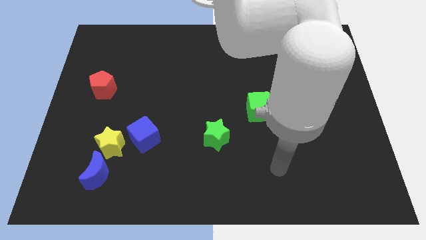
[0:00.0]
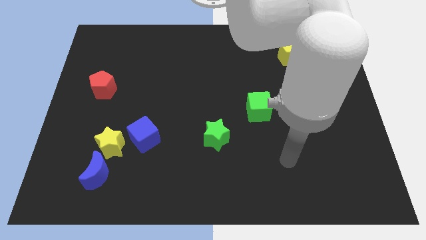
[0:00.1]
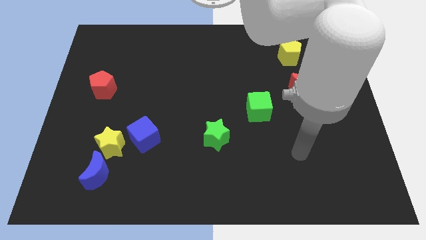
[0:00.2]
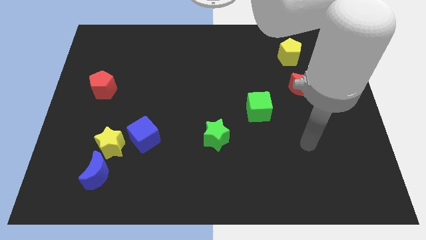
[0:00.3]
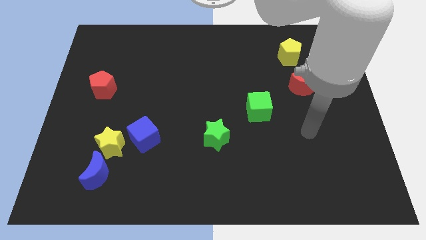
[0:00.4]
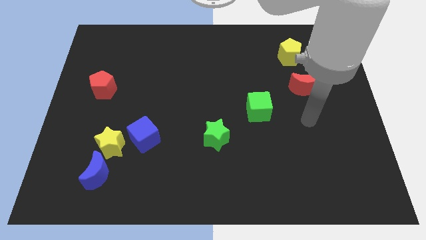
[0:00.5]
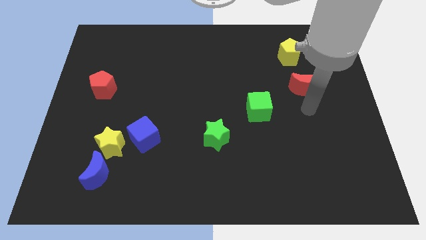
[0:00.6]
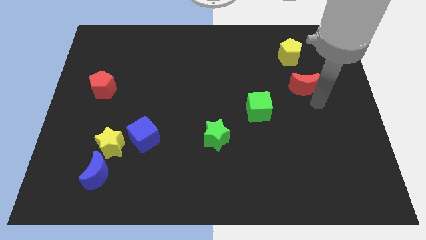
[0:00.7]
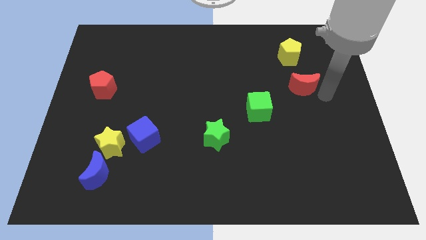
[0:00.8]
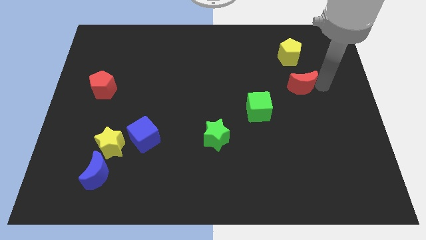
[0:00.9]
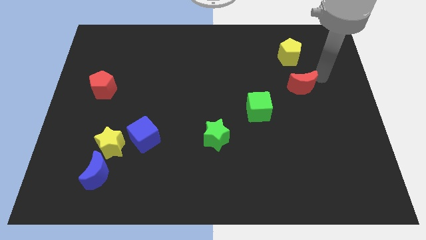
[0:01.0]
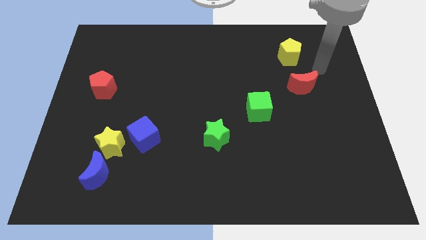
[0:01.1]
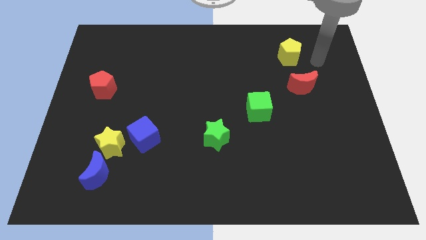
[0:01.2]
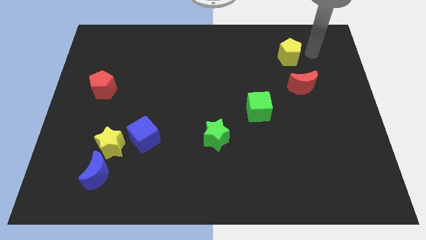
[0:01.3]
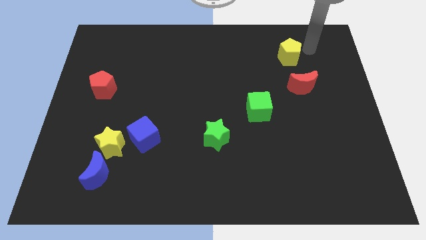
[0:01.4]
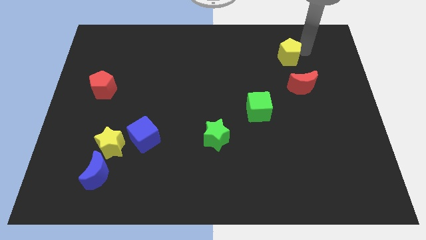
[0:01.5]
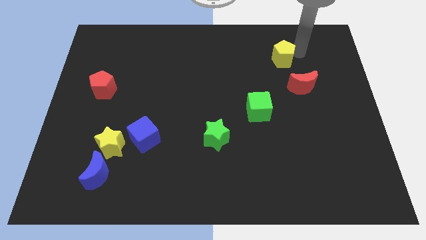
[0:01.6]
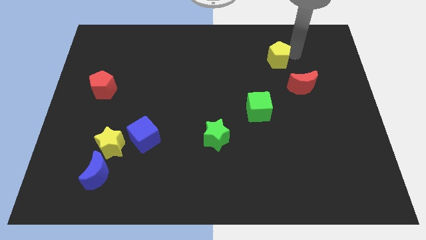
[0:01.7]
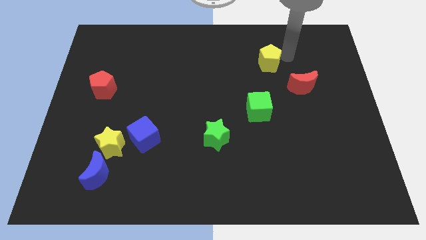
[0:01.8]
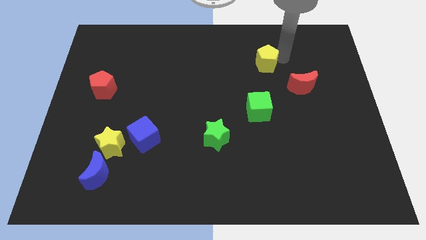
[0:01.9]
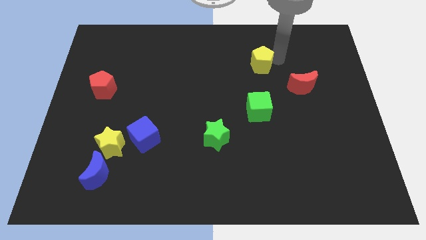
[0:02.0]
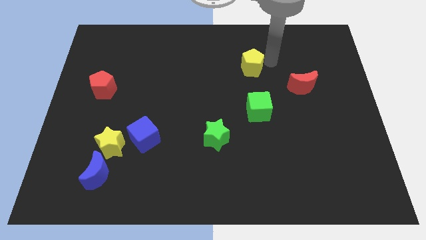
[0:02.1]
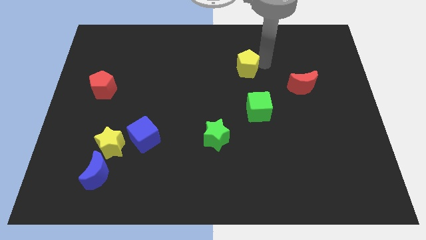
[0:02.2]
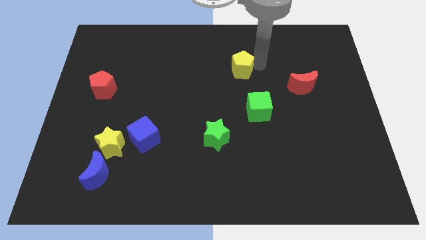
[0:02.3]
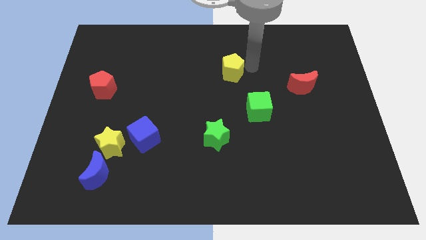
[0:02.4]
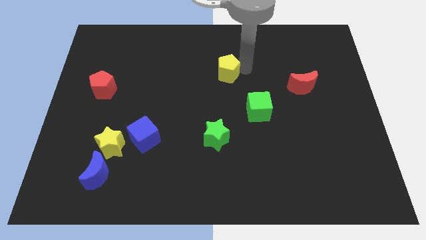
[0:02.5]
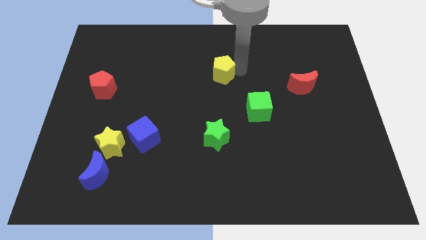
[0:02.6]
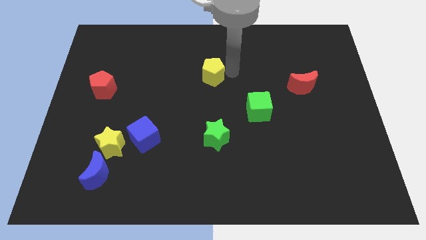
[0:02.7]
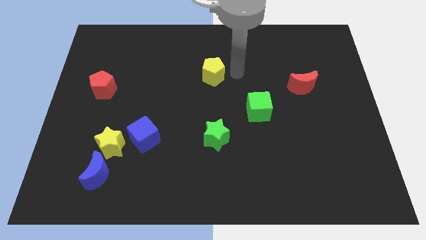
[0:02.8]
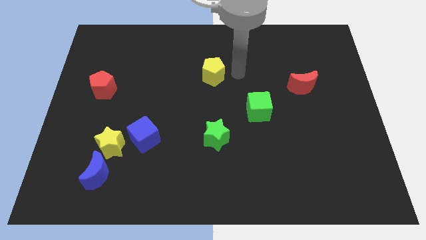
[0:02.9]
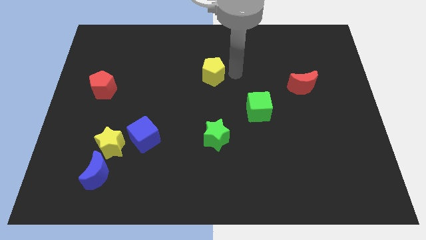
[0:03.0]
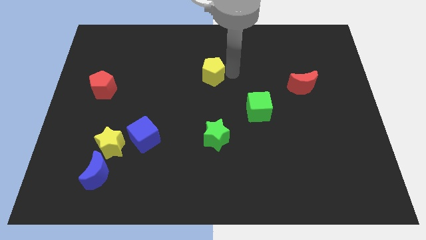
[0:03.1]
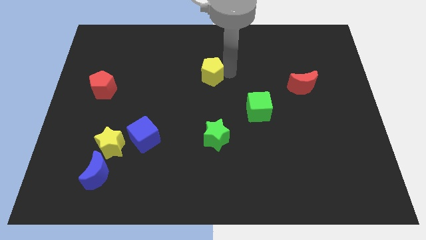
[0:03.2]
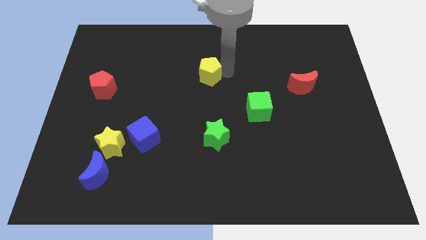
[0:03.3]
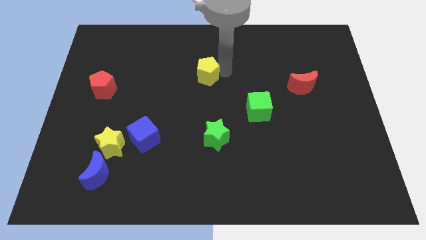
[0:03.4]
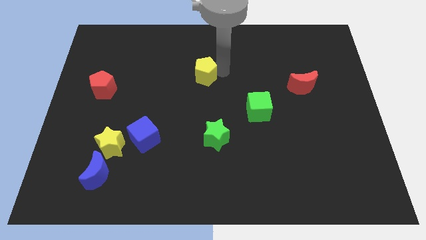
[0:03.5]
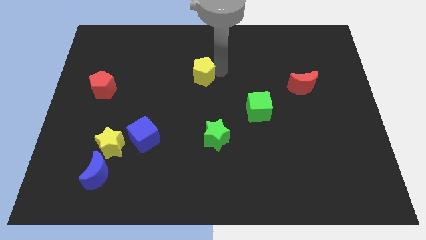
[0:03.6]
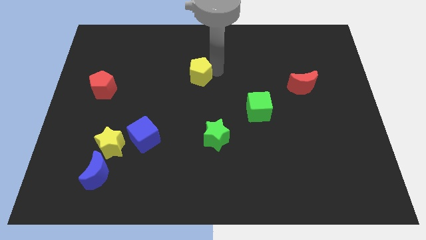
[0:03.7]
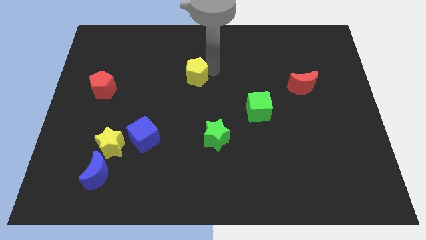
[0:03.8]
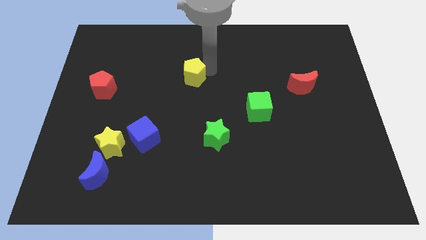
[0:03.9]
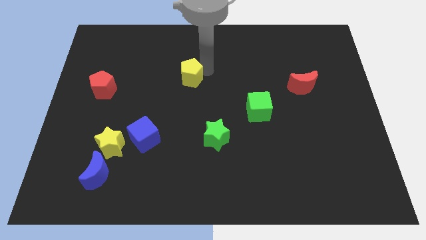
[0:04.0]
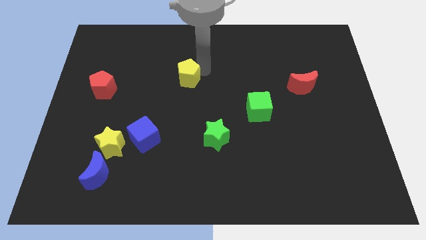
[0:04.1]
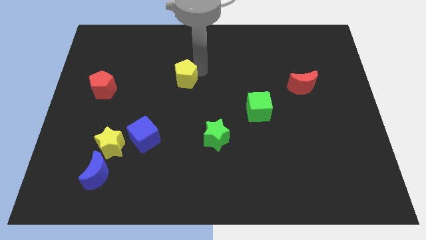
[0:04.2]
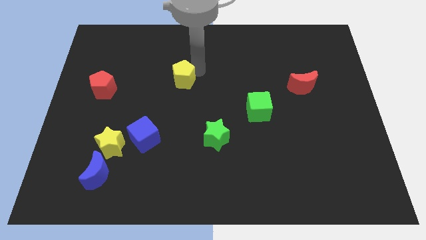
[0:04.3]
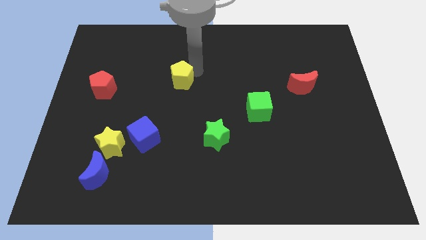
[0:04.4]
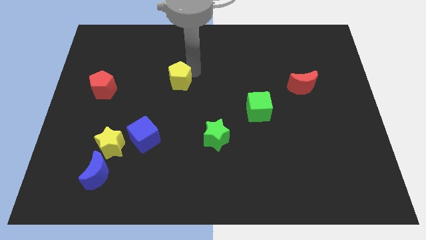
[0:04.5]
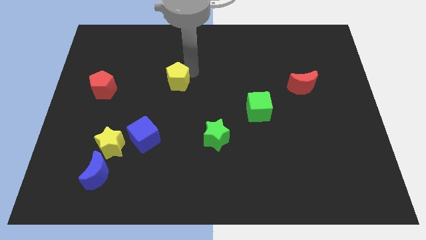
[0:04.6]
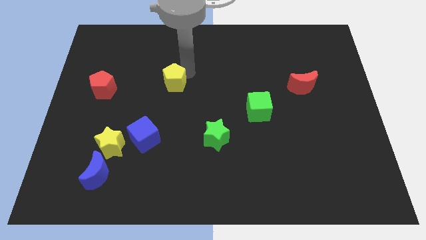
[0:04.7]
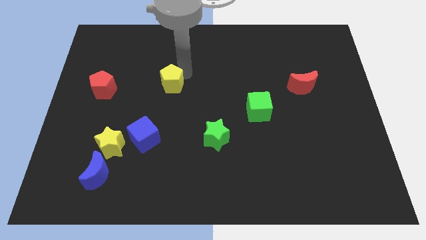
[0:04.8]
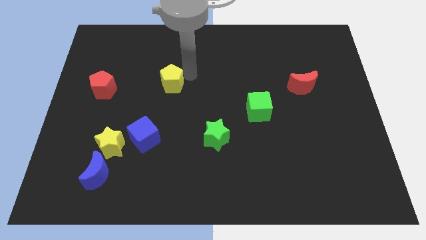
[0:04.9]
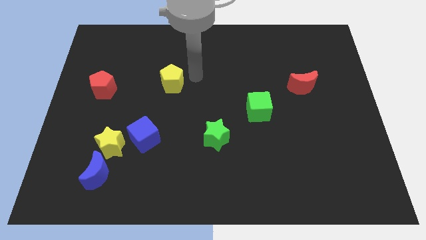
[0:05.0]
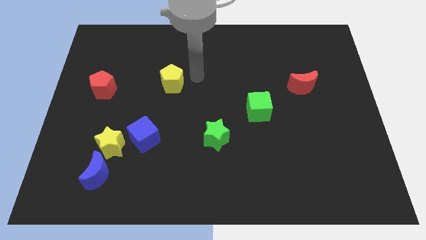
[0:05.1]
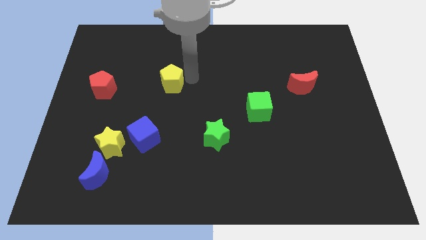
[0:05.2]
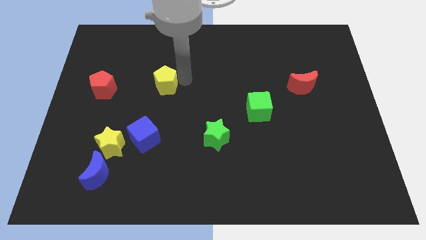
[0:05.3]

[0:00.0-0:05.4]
move the yellow pentagon right of the red pentagon

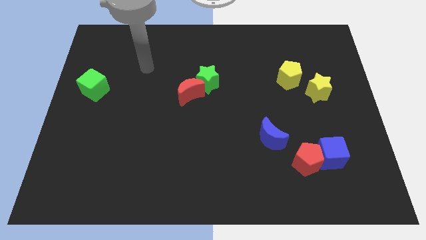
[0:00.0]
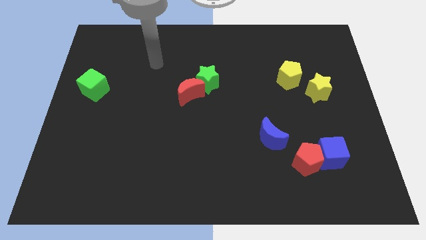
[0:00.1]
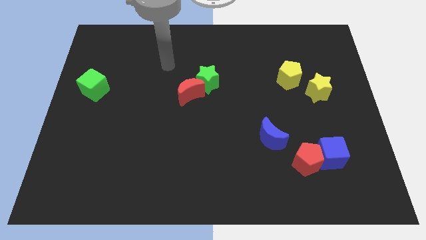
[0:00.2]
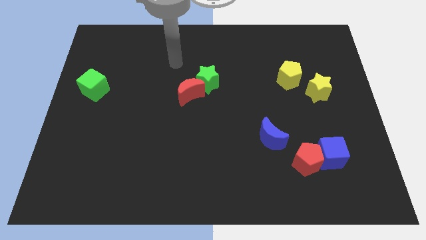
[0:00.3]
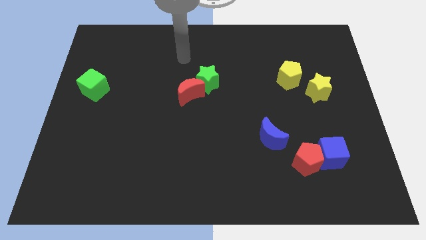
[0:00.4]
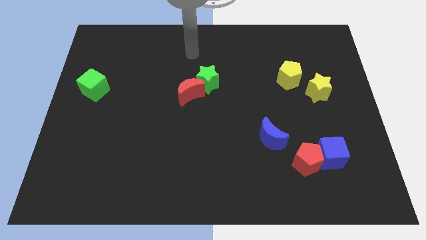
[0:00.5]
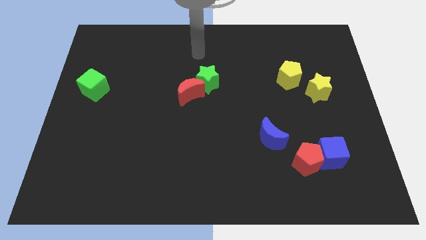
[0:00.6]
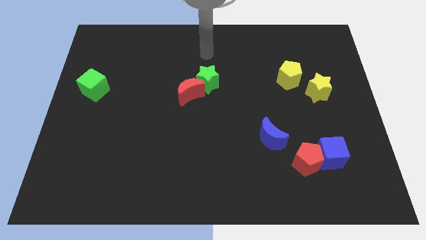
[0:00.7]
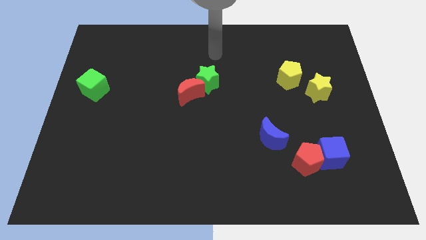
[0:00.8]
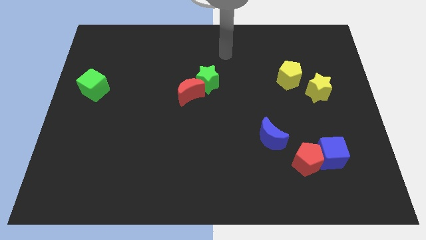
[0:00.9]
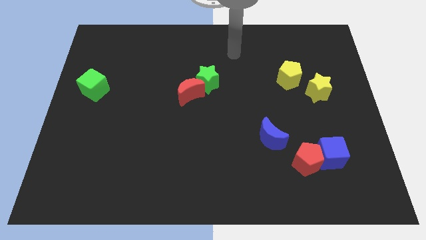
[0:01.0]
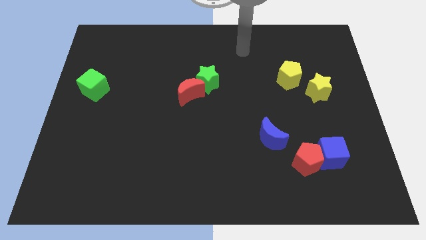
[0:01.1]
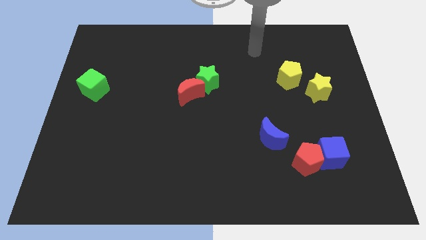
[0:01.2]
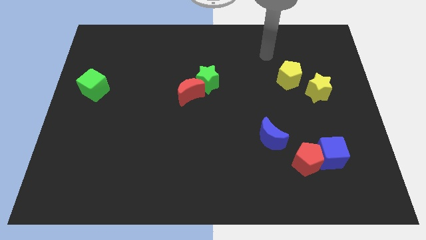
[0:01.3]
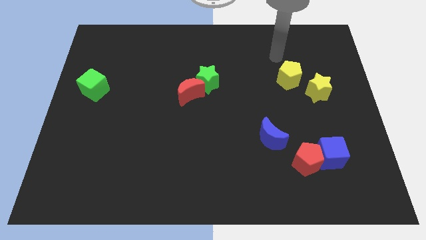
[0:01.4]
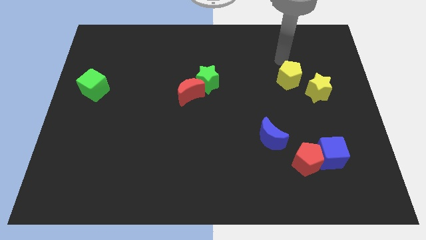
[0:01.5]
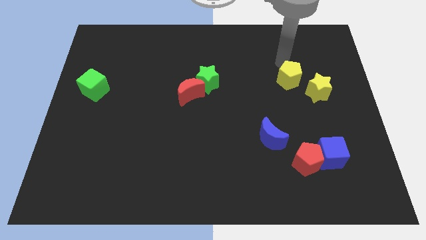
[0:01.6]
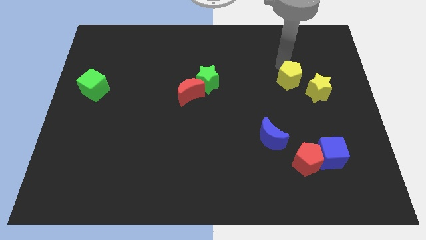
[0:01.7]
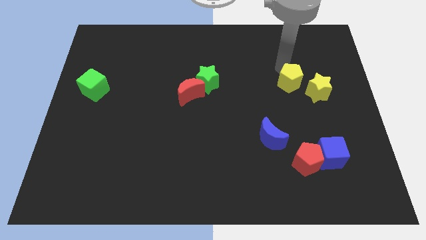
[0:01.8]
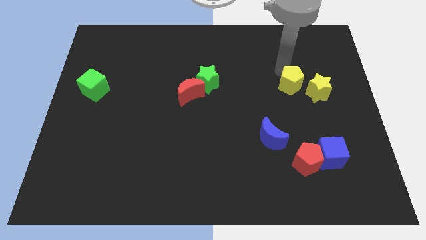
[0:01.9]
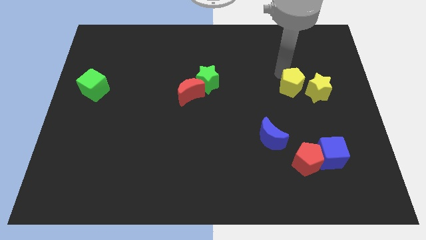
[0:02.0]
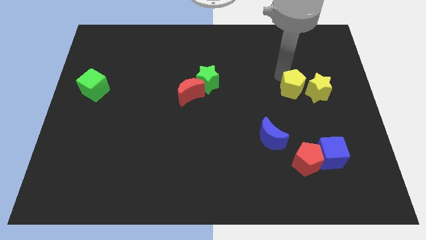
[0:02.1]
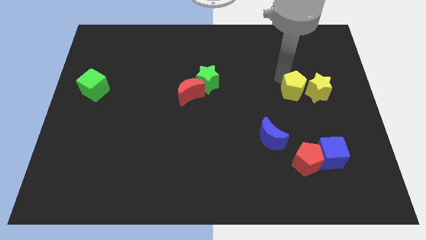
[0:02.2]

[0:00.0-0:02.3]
move the yellow pentagon to the bottom left of the yellow star
